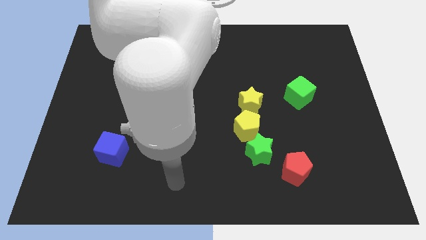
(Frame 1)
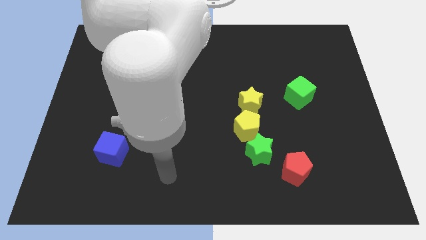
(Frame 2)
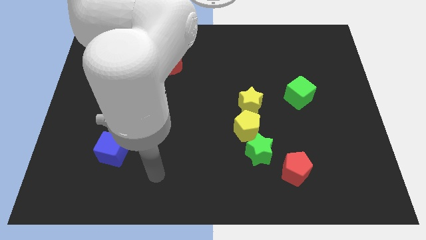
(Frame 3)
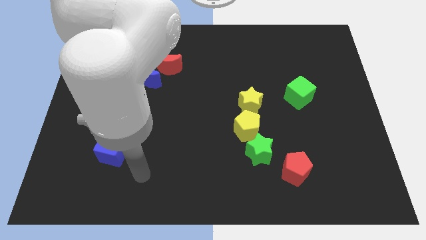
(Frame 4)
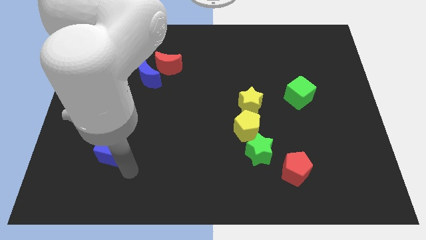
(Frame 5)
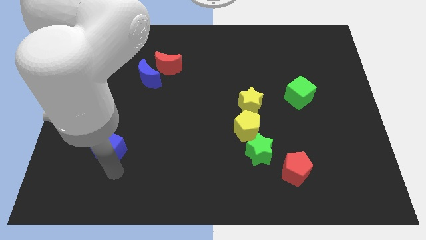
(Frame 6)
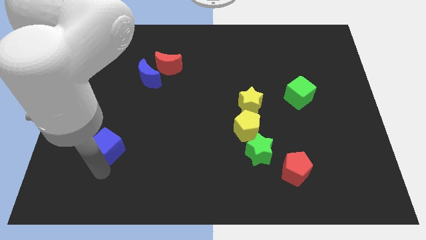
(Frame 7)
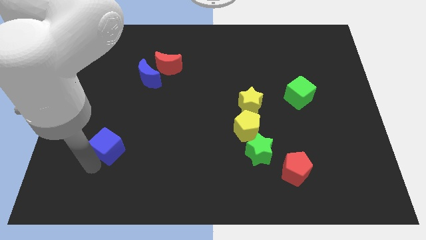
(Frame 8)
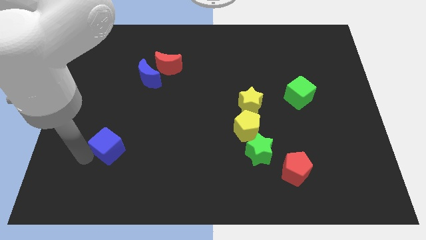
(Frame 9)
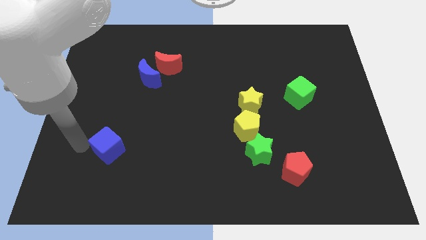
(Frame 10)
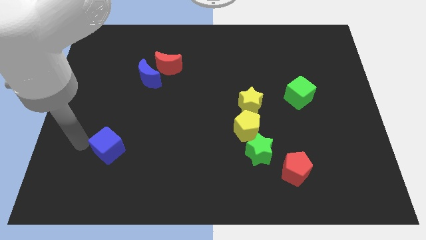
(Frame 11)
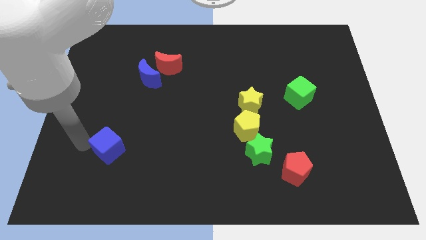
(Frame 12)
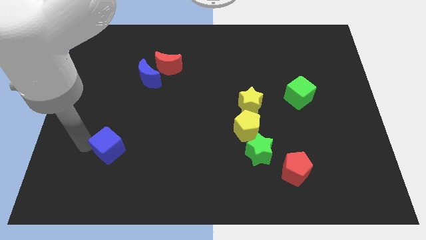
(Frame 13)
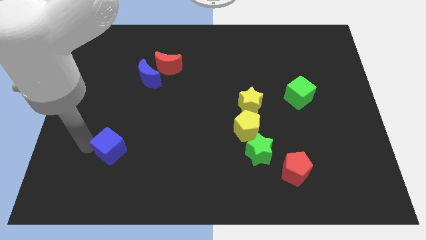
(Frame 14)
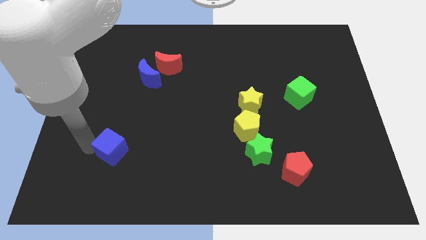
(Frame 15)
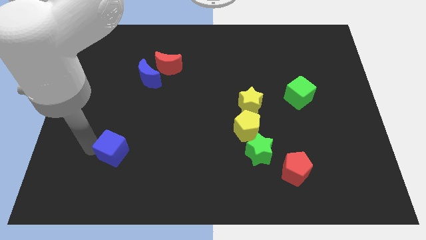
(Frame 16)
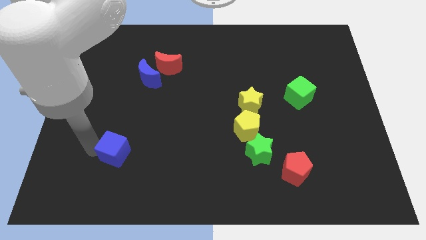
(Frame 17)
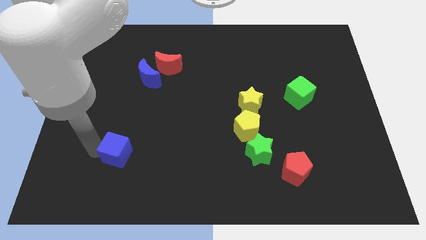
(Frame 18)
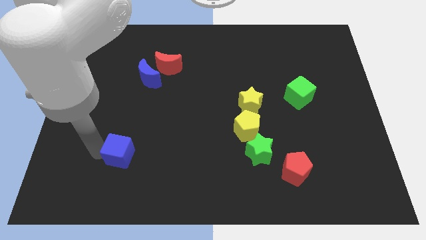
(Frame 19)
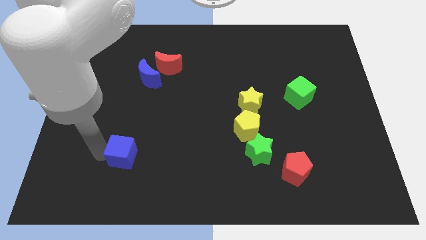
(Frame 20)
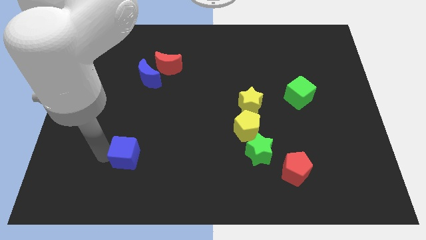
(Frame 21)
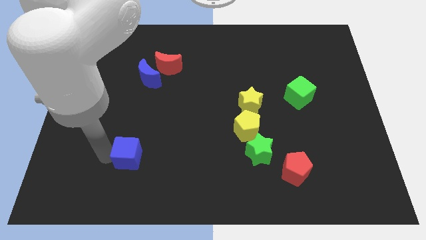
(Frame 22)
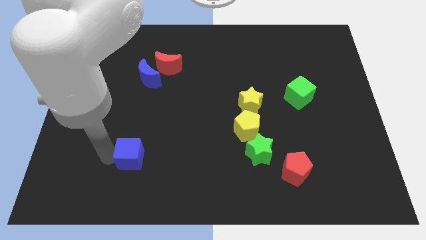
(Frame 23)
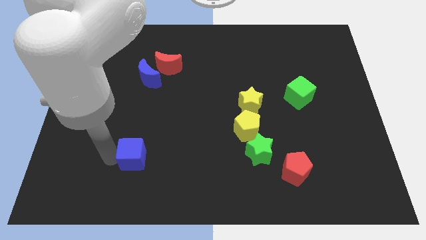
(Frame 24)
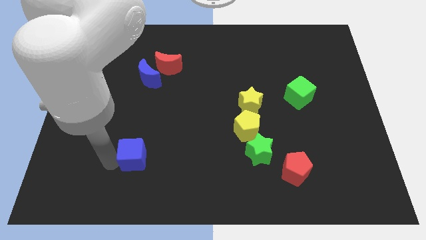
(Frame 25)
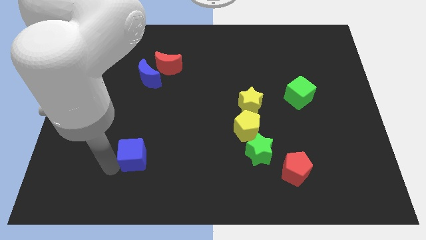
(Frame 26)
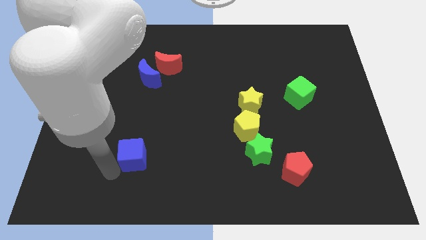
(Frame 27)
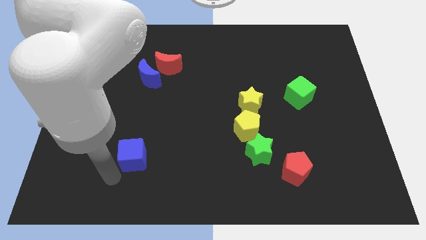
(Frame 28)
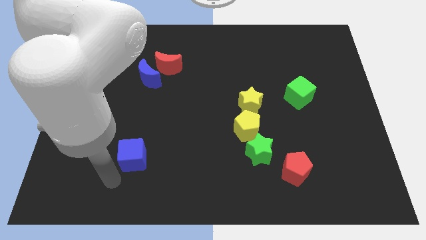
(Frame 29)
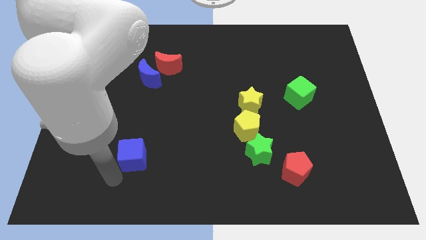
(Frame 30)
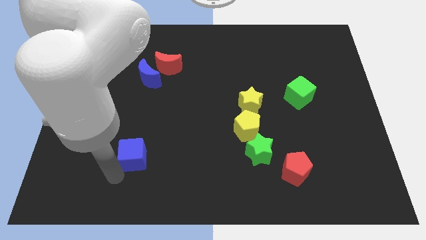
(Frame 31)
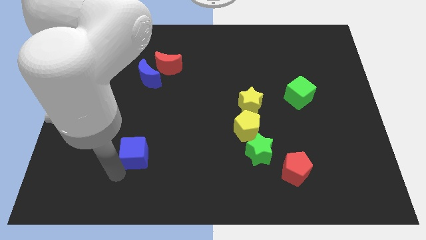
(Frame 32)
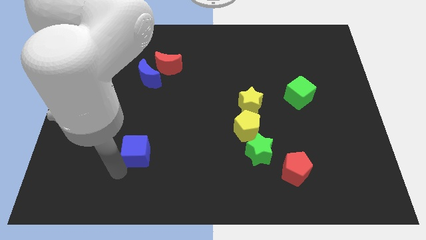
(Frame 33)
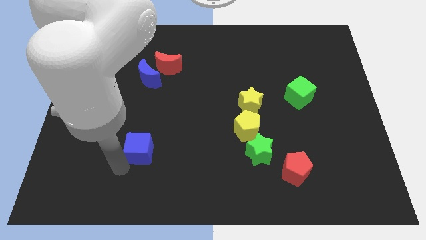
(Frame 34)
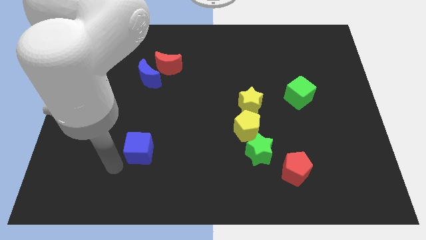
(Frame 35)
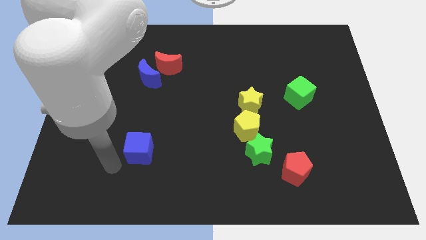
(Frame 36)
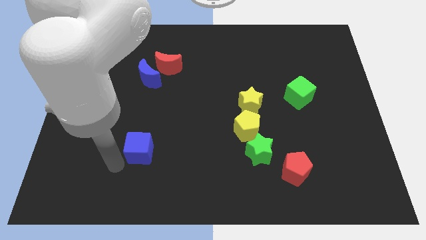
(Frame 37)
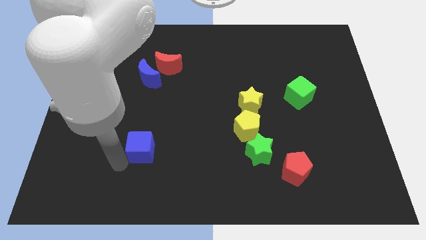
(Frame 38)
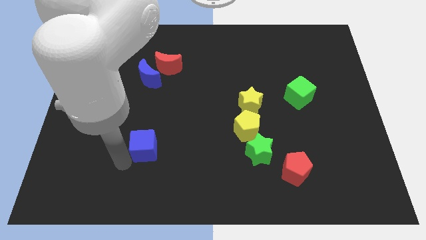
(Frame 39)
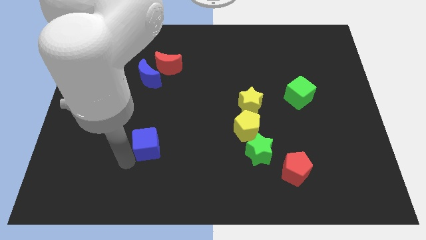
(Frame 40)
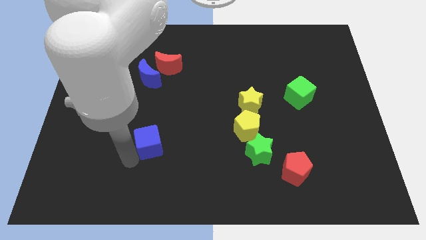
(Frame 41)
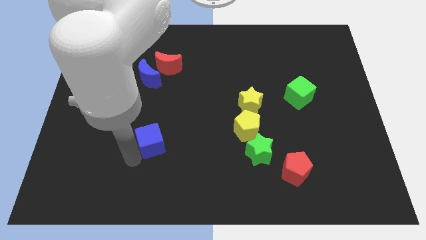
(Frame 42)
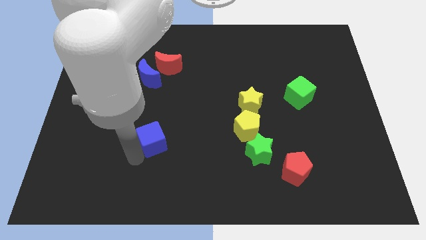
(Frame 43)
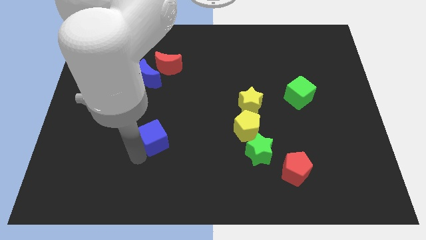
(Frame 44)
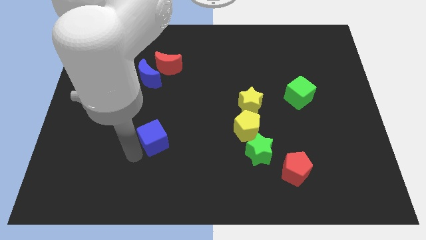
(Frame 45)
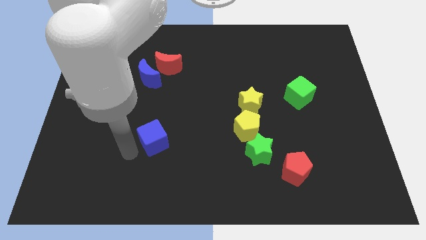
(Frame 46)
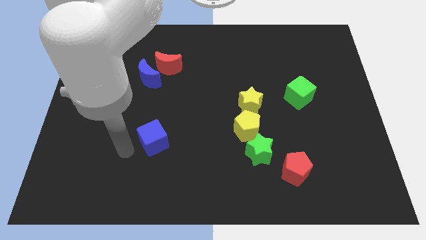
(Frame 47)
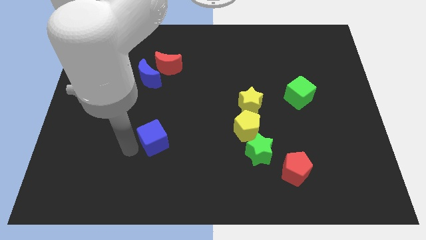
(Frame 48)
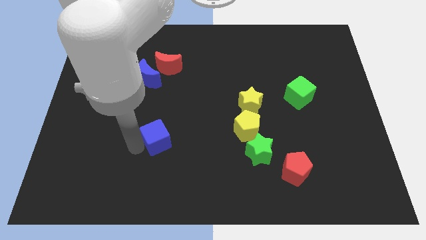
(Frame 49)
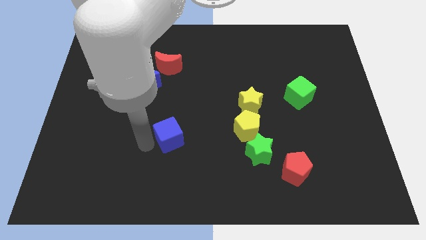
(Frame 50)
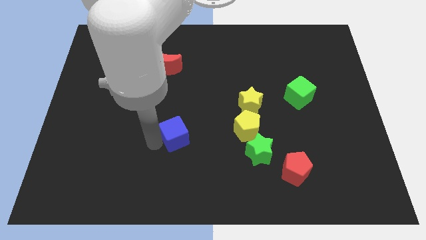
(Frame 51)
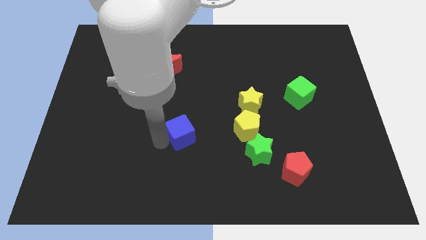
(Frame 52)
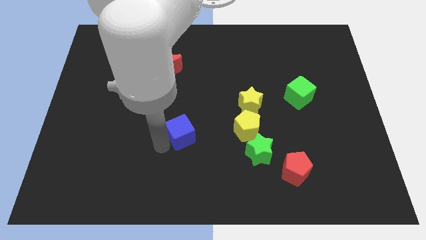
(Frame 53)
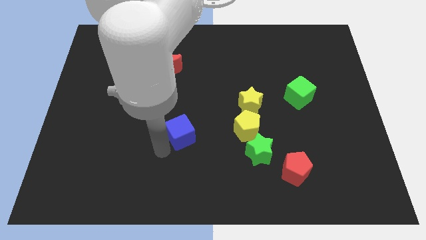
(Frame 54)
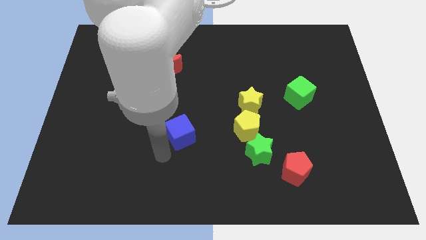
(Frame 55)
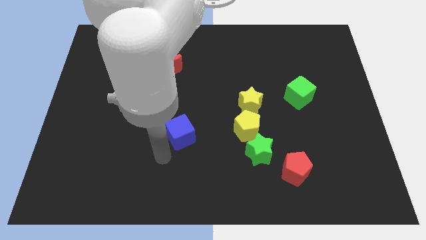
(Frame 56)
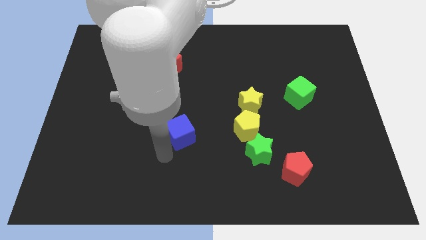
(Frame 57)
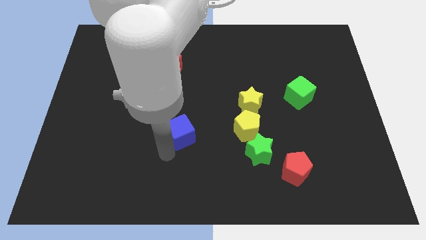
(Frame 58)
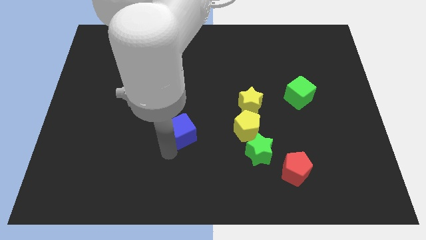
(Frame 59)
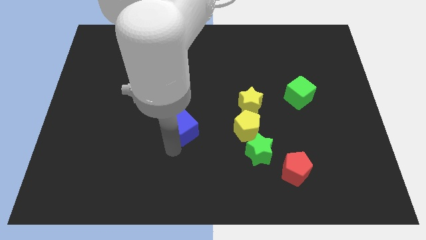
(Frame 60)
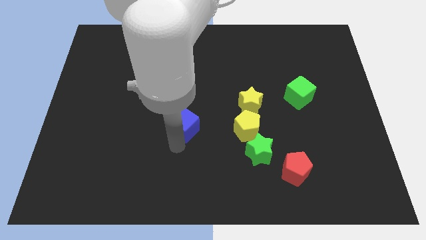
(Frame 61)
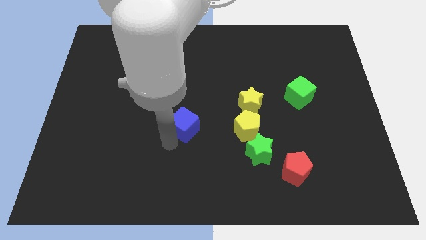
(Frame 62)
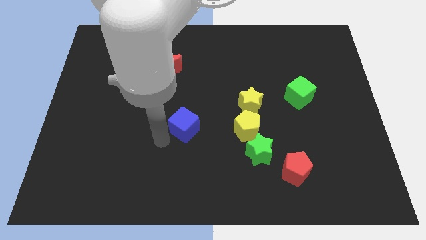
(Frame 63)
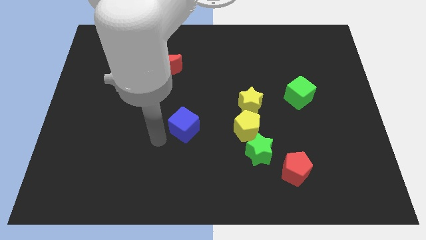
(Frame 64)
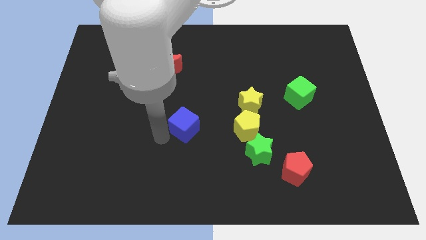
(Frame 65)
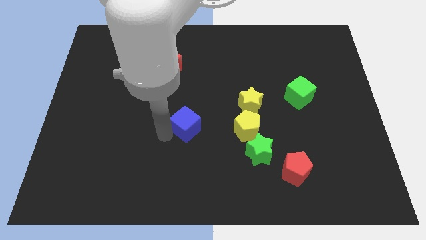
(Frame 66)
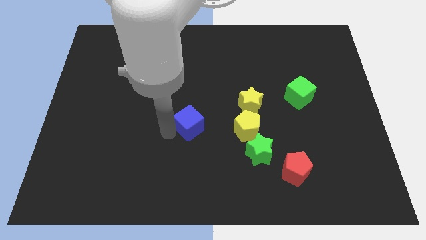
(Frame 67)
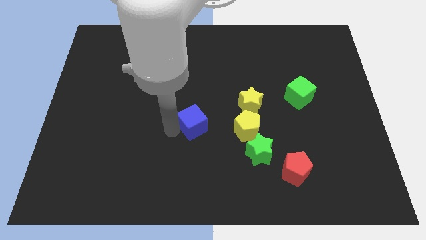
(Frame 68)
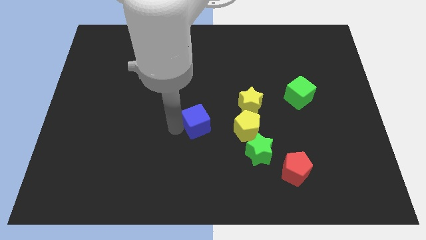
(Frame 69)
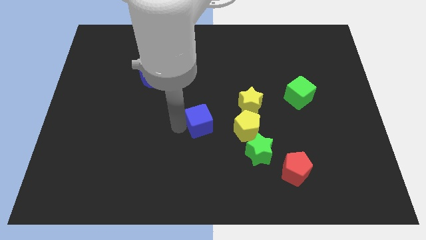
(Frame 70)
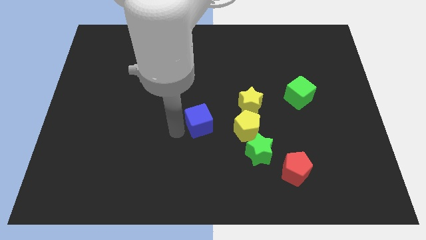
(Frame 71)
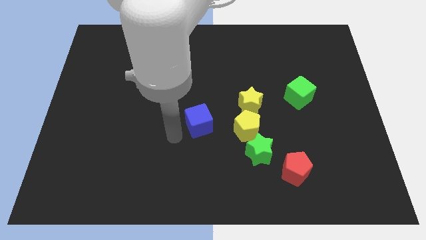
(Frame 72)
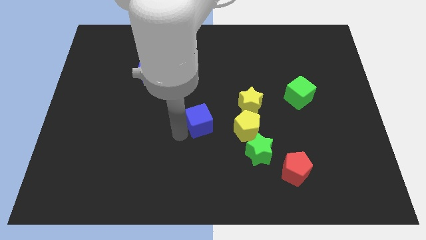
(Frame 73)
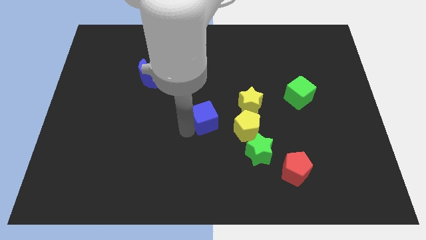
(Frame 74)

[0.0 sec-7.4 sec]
push the blue cube diagonally up and to the left of the yellow pentagon

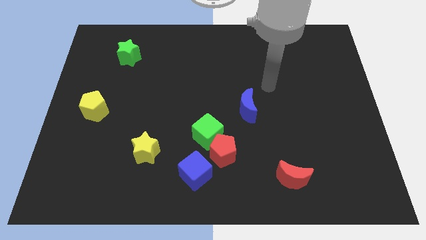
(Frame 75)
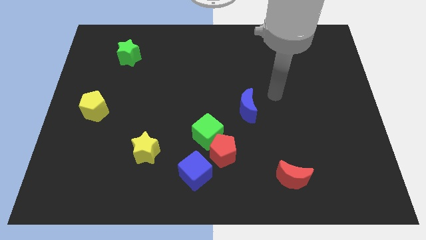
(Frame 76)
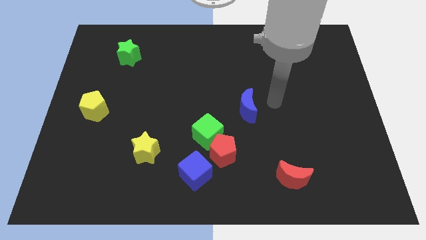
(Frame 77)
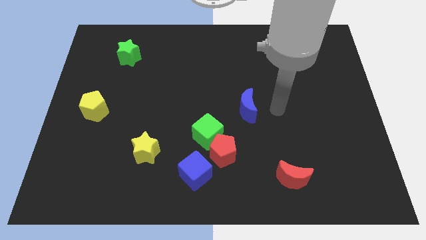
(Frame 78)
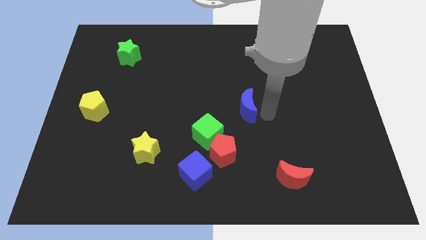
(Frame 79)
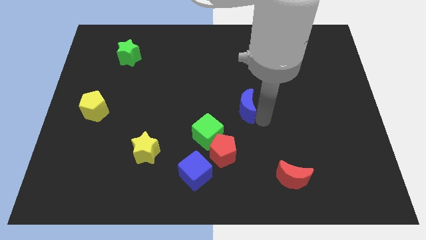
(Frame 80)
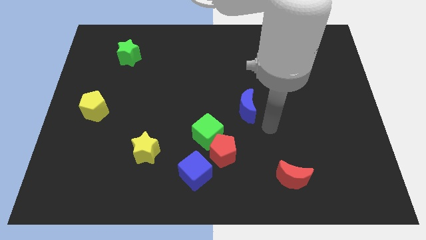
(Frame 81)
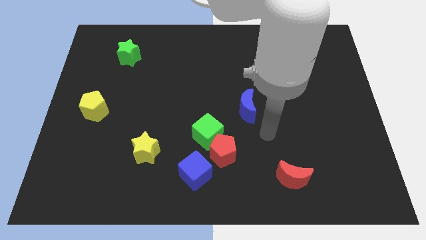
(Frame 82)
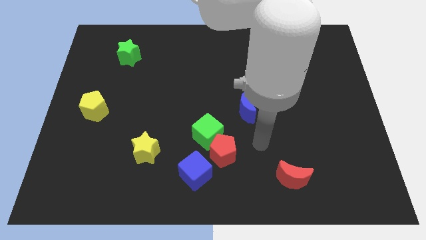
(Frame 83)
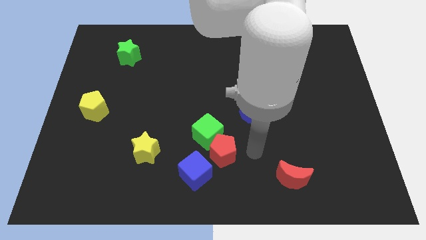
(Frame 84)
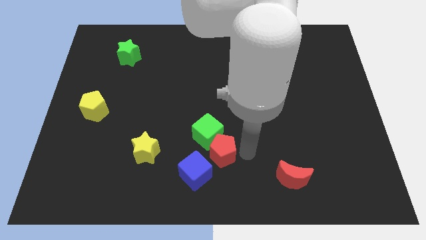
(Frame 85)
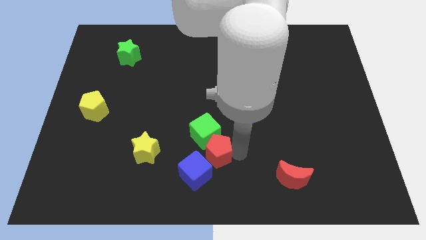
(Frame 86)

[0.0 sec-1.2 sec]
put the red pentagon to the top of the blue cube
